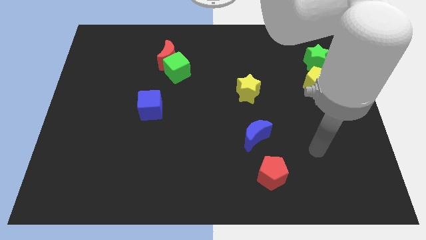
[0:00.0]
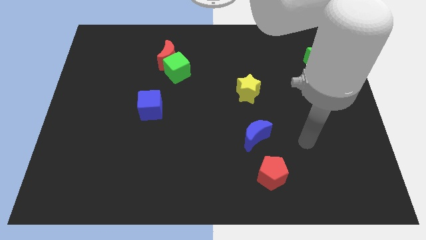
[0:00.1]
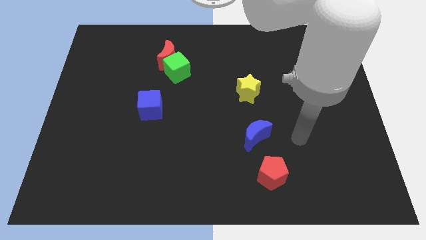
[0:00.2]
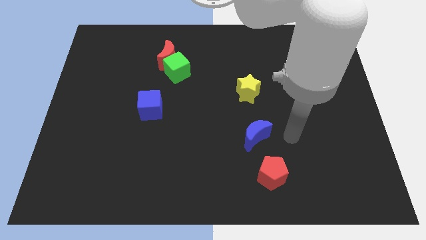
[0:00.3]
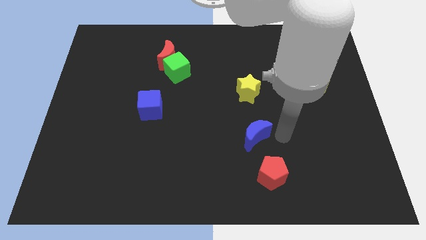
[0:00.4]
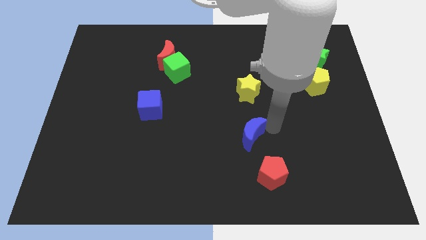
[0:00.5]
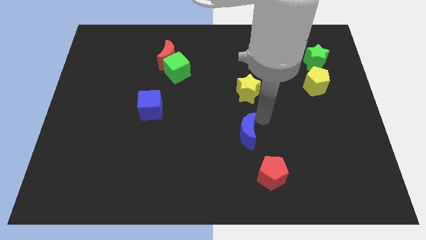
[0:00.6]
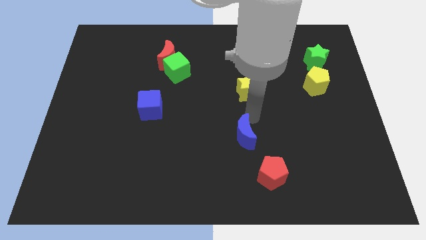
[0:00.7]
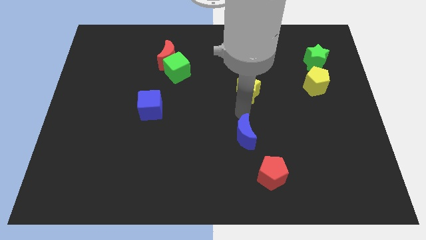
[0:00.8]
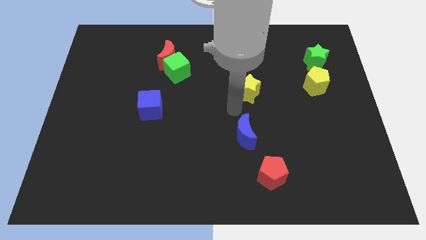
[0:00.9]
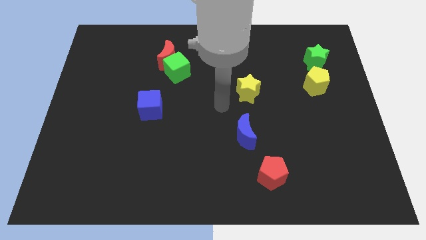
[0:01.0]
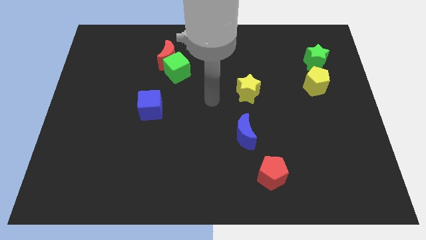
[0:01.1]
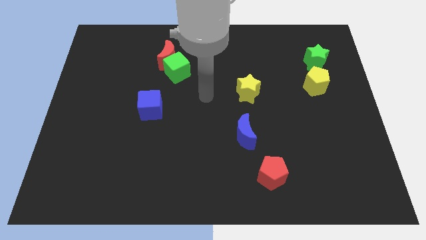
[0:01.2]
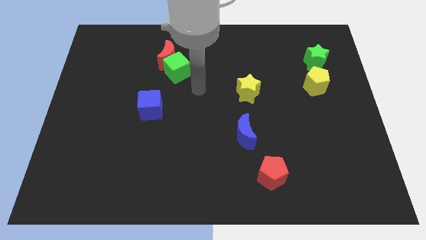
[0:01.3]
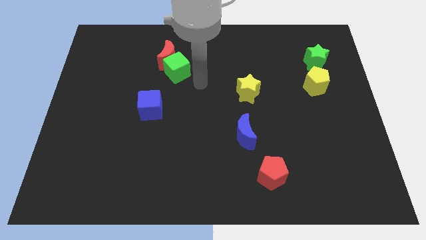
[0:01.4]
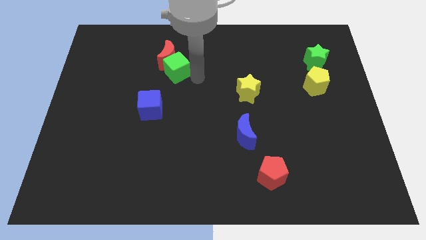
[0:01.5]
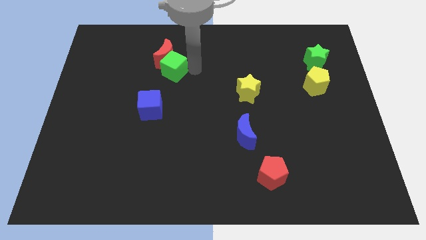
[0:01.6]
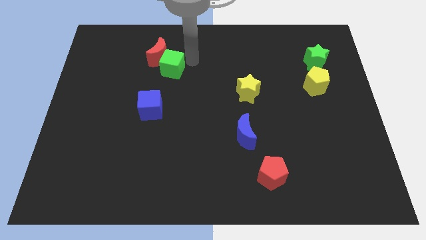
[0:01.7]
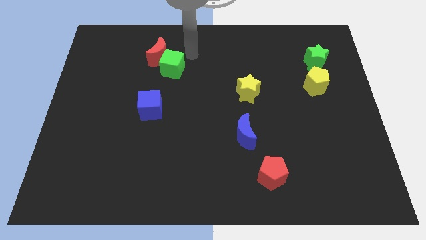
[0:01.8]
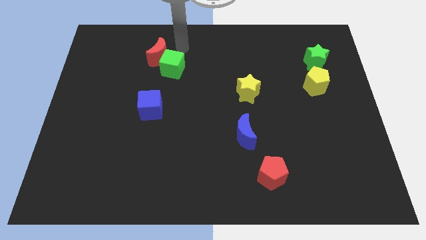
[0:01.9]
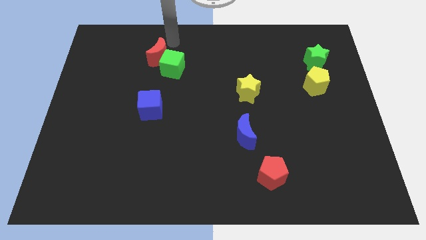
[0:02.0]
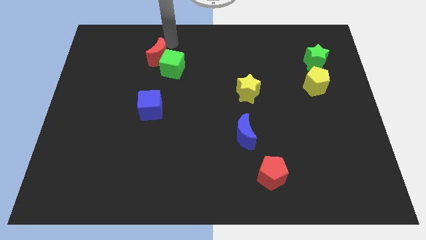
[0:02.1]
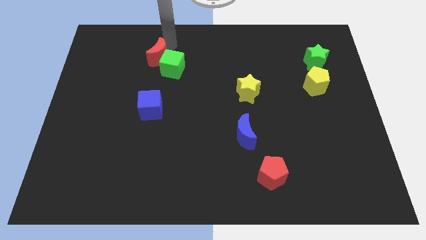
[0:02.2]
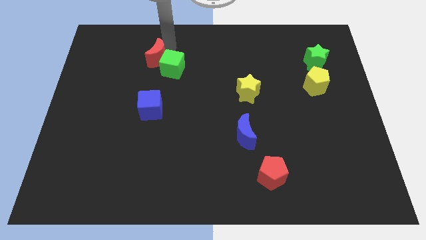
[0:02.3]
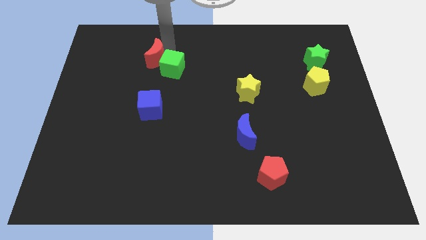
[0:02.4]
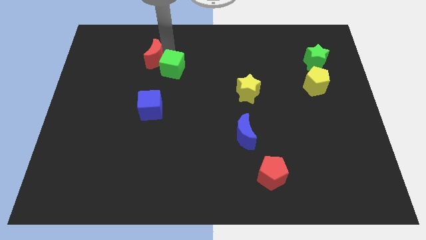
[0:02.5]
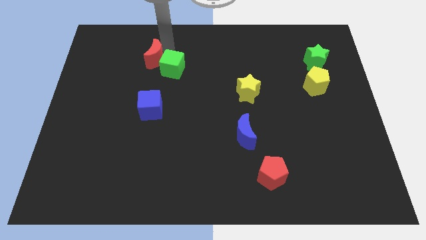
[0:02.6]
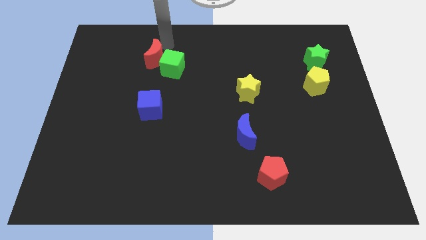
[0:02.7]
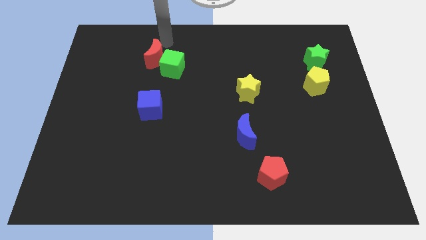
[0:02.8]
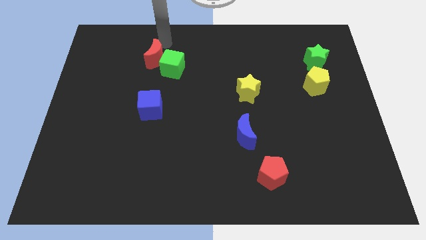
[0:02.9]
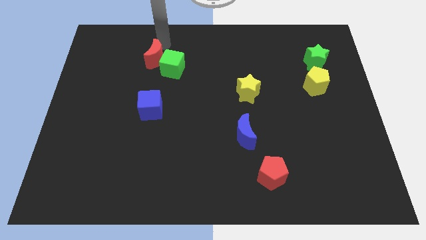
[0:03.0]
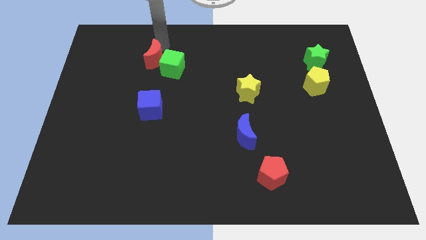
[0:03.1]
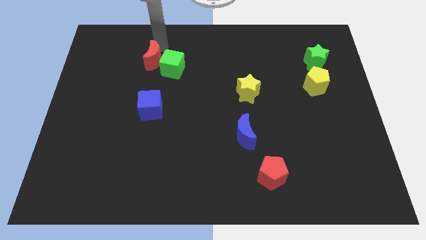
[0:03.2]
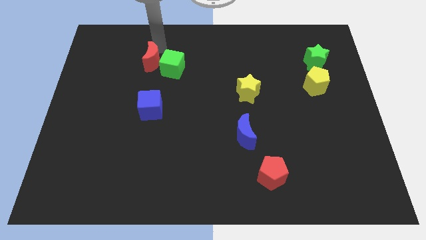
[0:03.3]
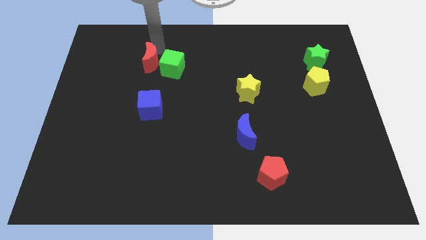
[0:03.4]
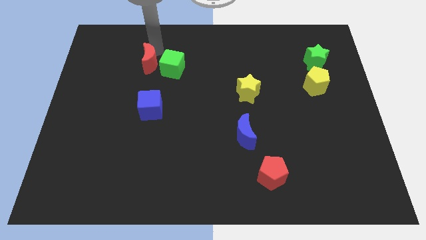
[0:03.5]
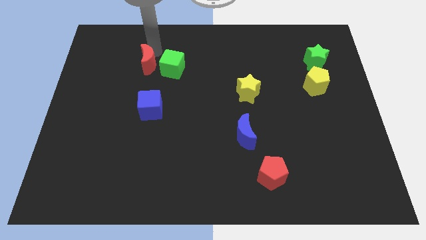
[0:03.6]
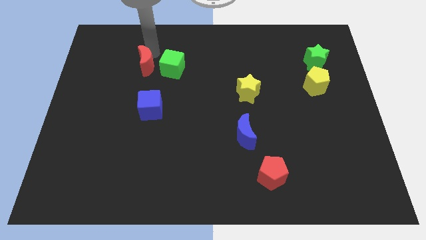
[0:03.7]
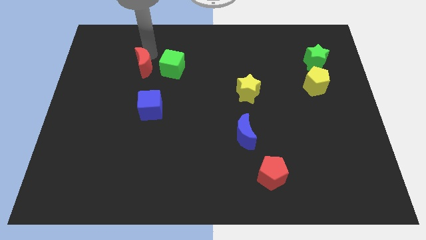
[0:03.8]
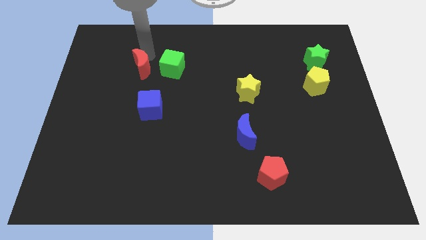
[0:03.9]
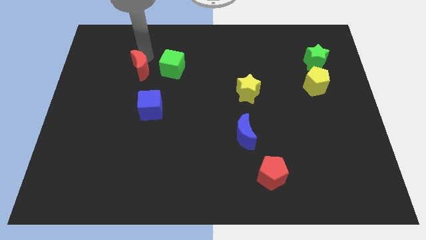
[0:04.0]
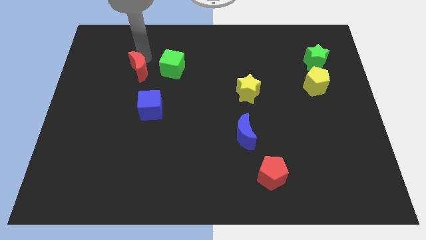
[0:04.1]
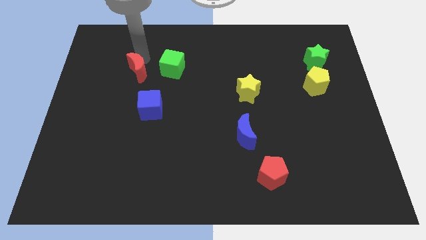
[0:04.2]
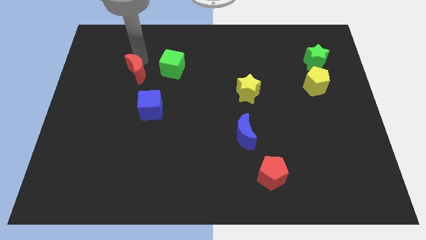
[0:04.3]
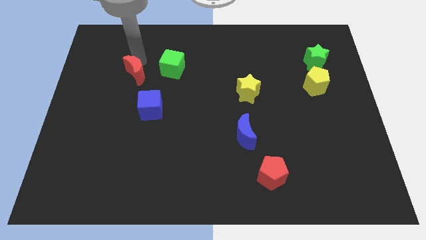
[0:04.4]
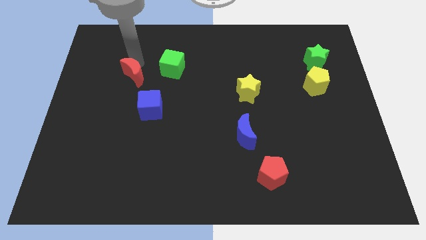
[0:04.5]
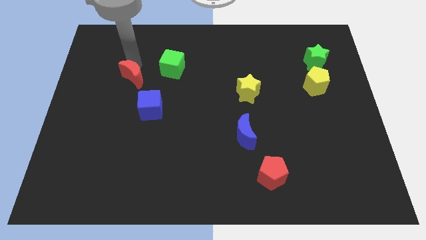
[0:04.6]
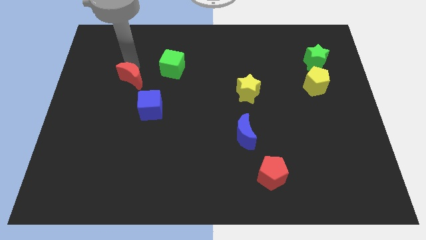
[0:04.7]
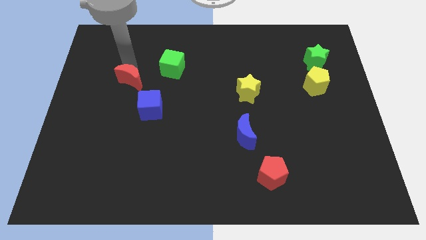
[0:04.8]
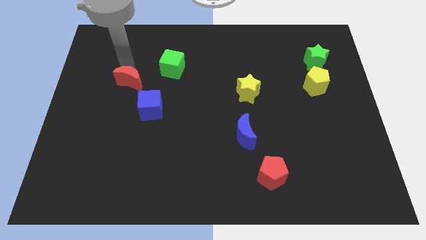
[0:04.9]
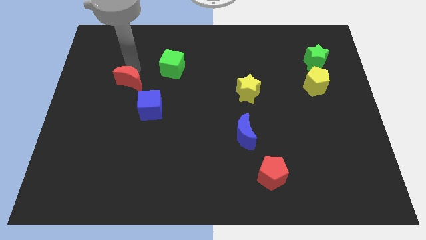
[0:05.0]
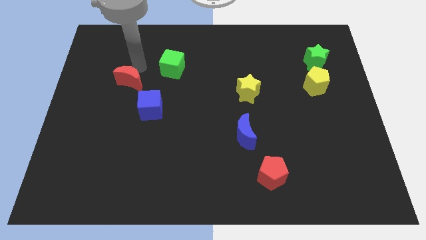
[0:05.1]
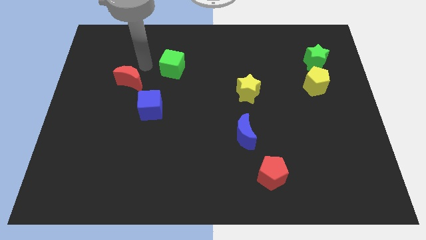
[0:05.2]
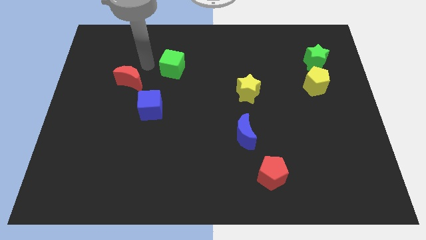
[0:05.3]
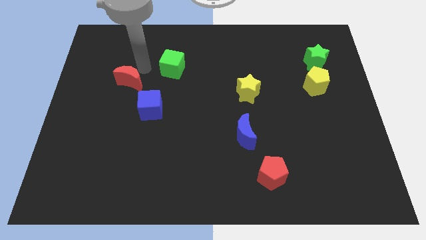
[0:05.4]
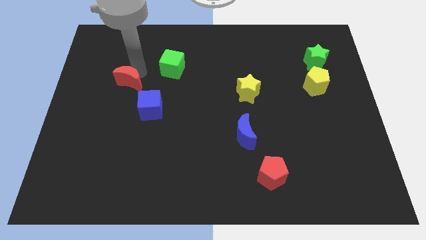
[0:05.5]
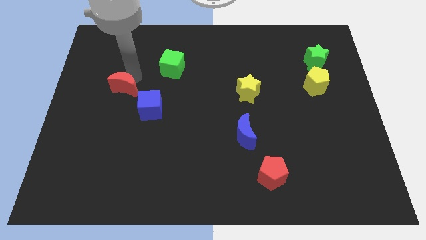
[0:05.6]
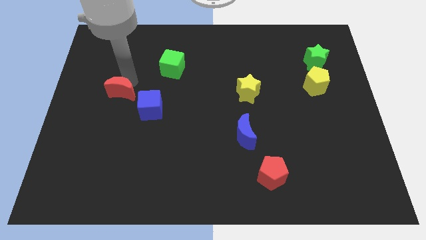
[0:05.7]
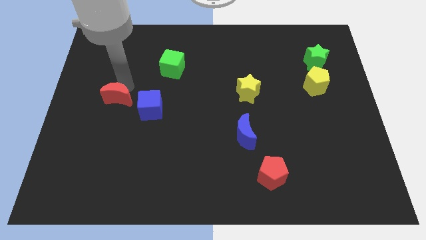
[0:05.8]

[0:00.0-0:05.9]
push the red moon left of the blue cube

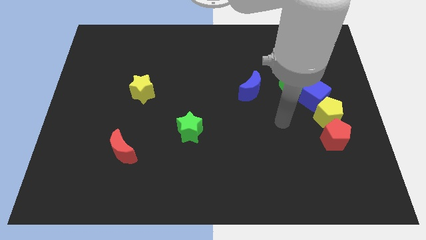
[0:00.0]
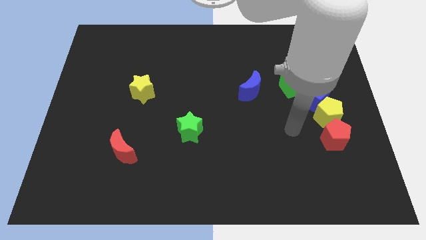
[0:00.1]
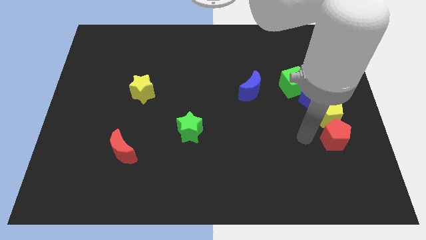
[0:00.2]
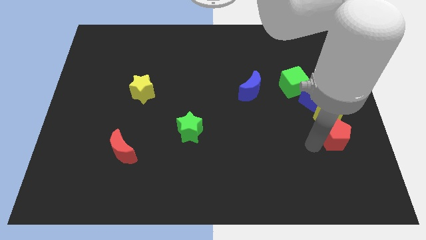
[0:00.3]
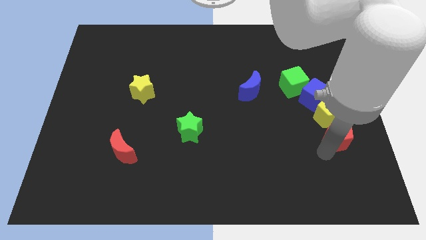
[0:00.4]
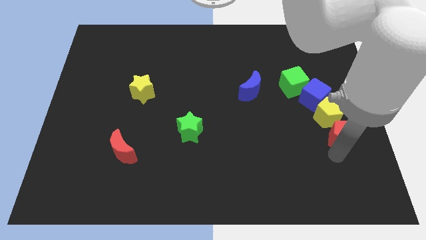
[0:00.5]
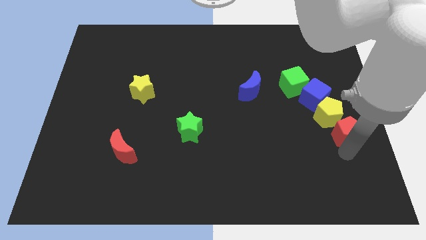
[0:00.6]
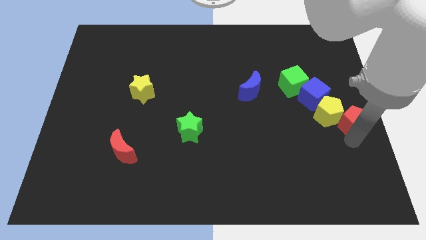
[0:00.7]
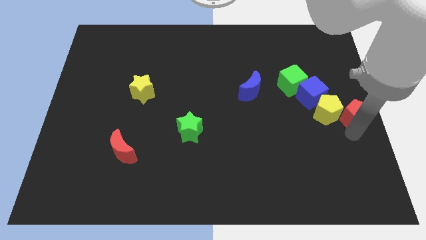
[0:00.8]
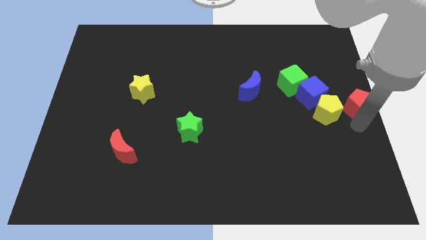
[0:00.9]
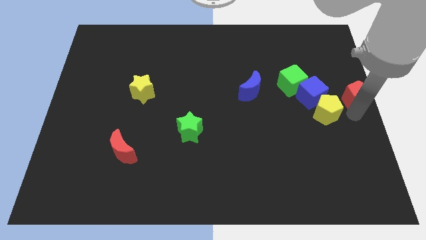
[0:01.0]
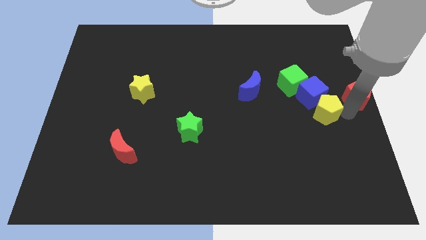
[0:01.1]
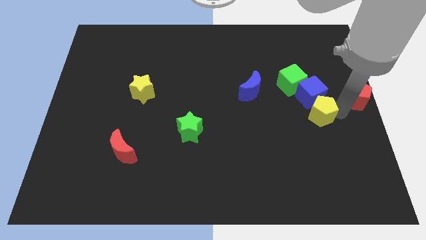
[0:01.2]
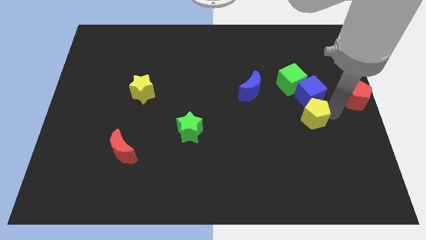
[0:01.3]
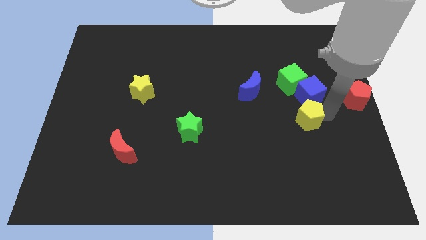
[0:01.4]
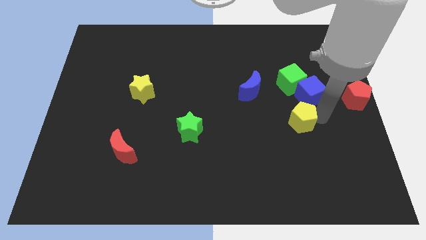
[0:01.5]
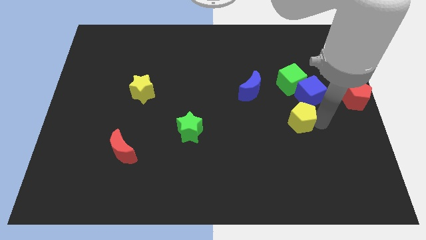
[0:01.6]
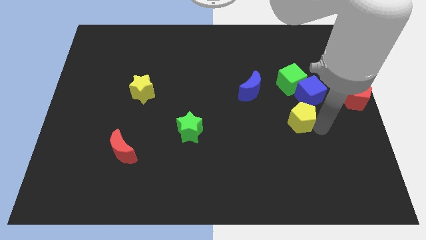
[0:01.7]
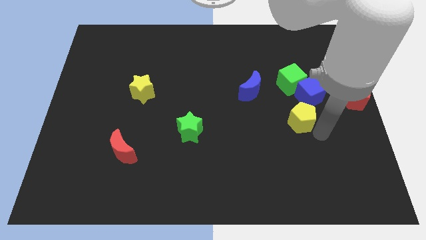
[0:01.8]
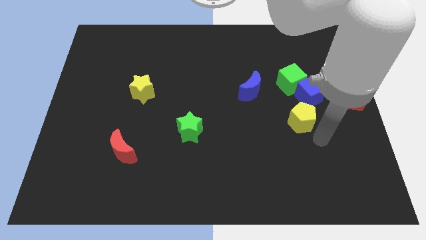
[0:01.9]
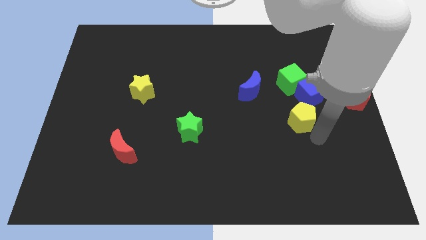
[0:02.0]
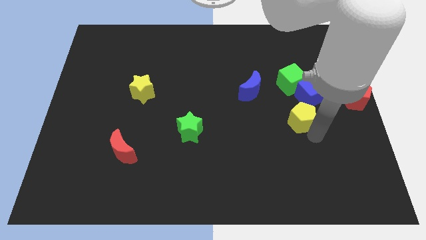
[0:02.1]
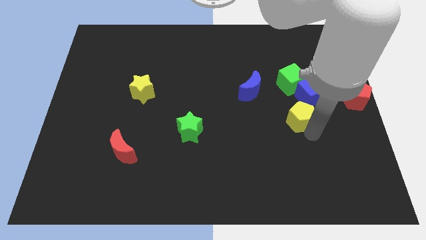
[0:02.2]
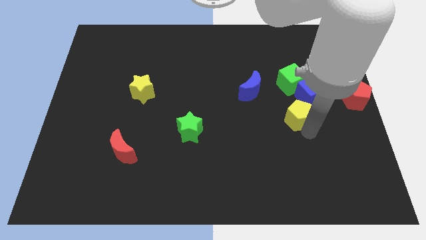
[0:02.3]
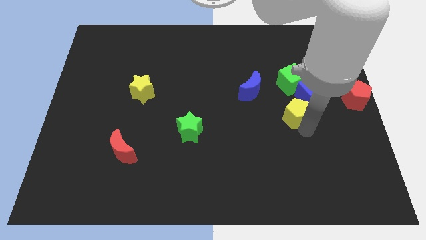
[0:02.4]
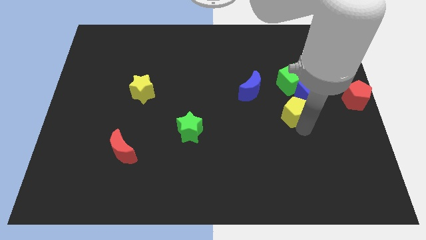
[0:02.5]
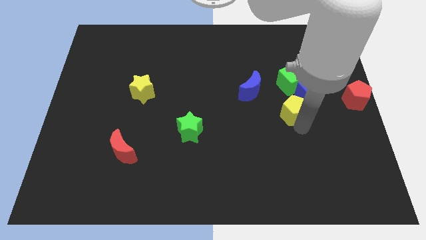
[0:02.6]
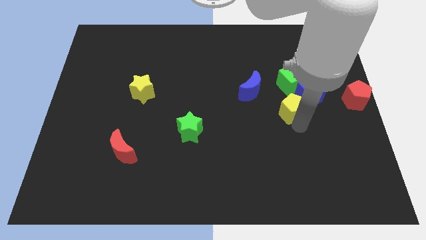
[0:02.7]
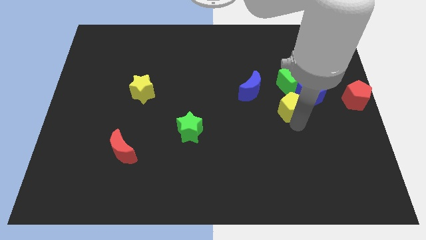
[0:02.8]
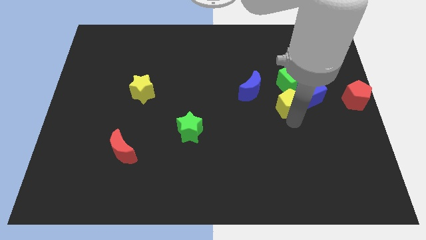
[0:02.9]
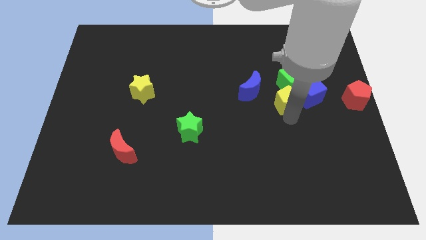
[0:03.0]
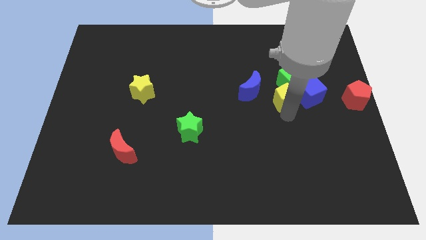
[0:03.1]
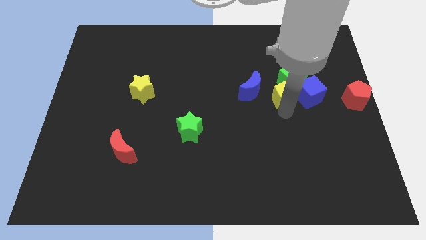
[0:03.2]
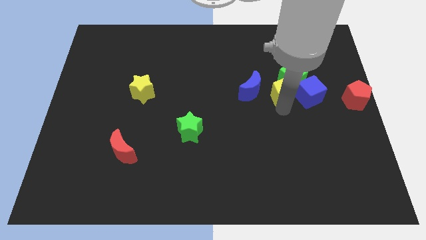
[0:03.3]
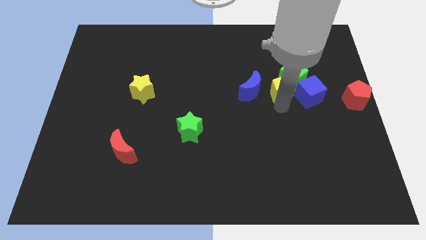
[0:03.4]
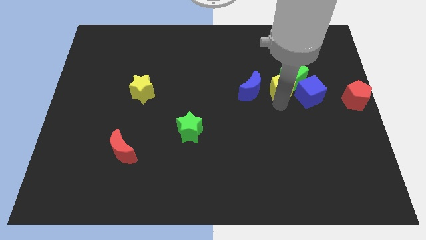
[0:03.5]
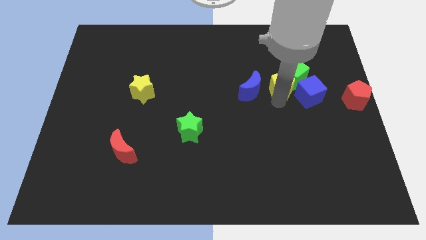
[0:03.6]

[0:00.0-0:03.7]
move the yellow pentagon to the top right of the blue moon
